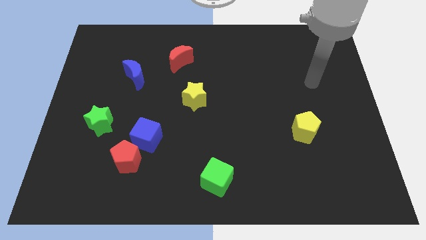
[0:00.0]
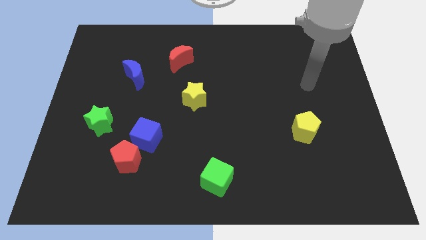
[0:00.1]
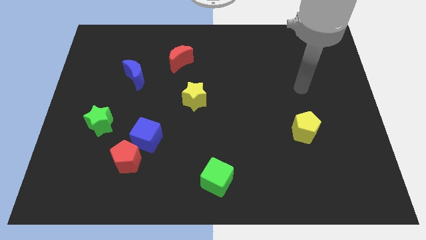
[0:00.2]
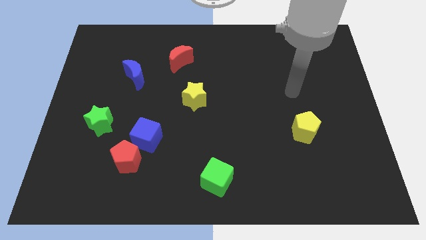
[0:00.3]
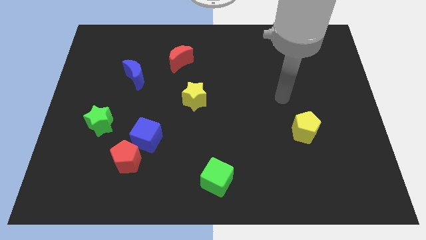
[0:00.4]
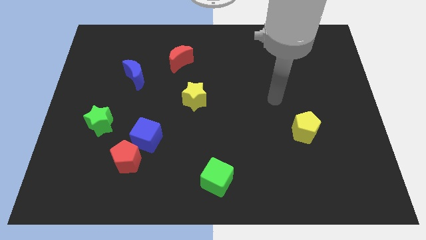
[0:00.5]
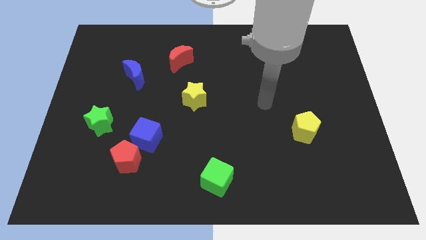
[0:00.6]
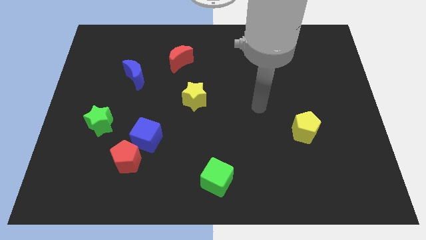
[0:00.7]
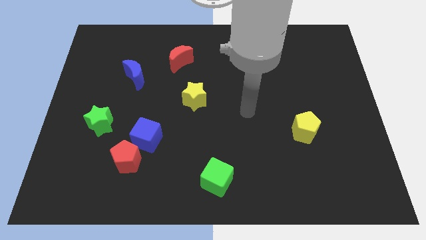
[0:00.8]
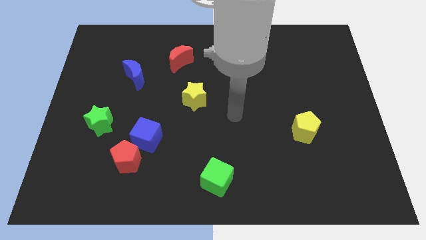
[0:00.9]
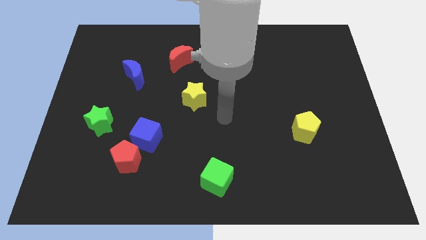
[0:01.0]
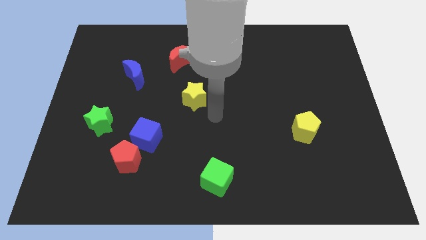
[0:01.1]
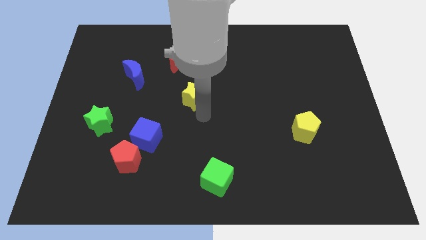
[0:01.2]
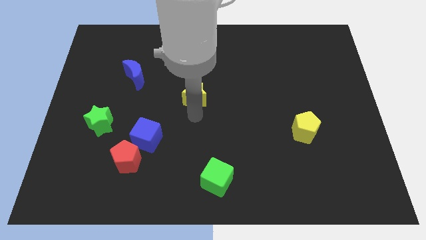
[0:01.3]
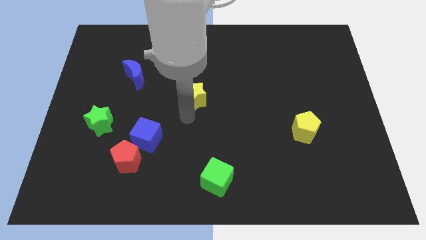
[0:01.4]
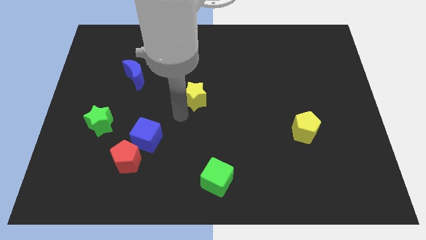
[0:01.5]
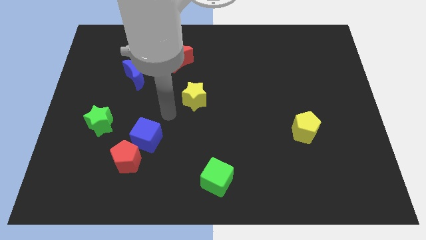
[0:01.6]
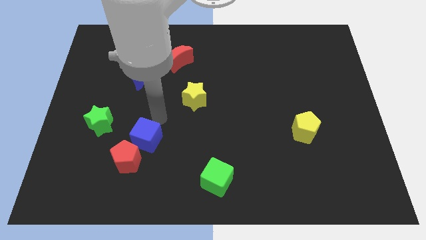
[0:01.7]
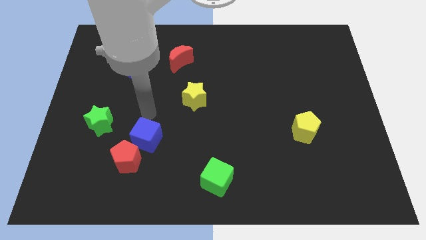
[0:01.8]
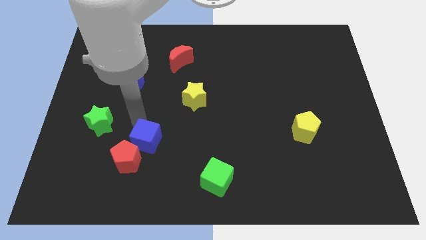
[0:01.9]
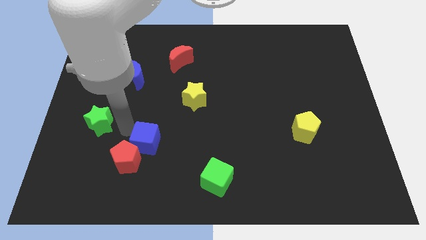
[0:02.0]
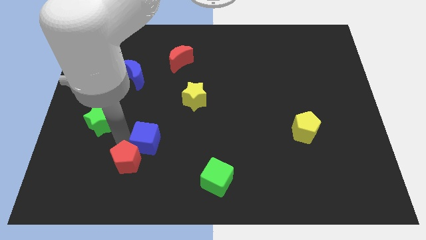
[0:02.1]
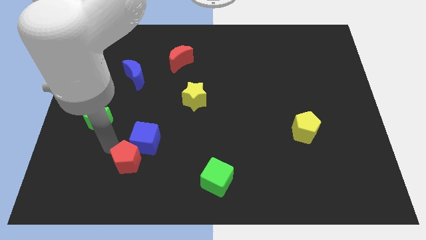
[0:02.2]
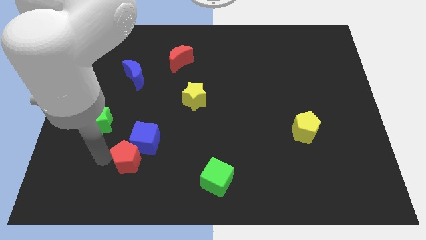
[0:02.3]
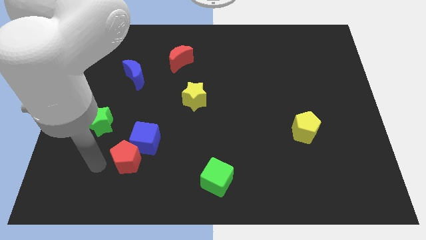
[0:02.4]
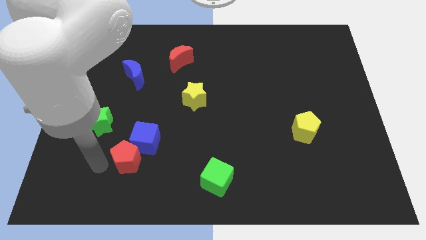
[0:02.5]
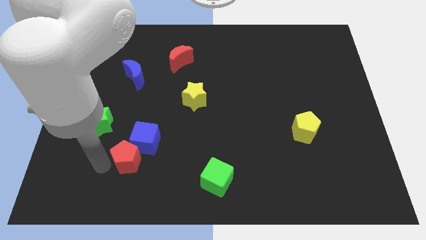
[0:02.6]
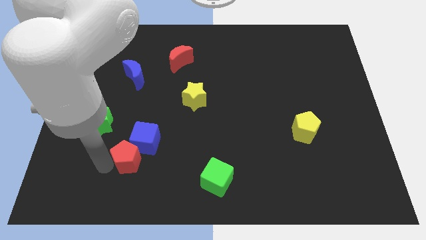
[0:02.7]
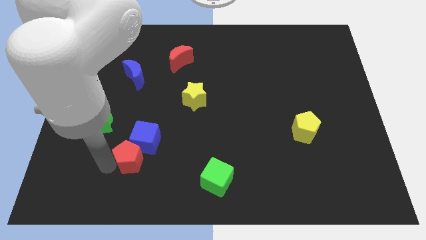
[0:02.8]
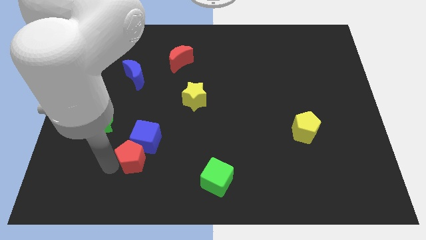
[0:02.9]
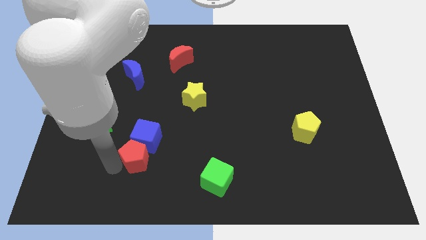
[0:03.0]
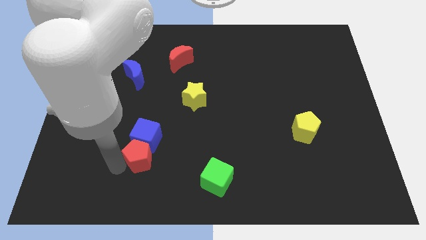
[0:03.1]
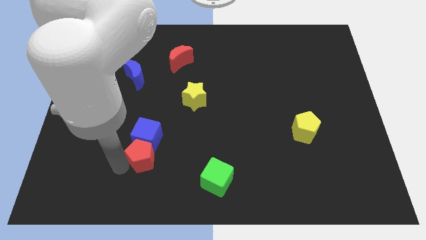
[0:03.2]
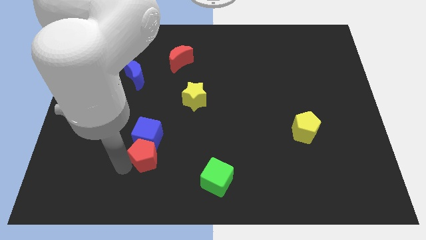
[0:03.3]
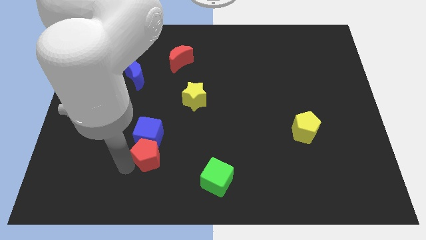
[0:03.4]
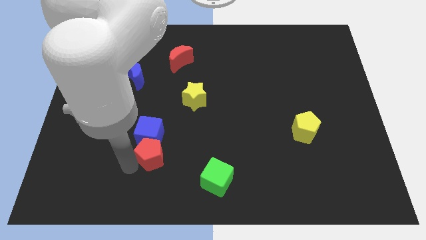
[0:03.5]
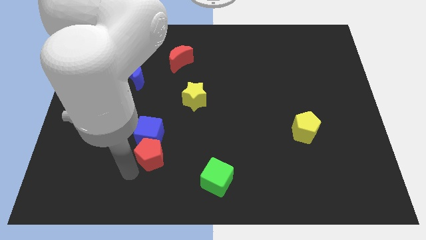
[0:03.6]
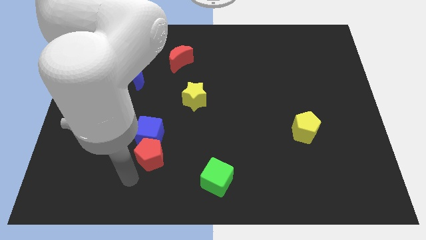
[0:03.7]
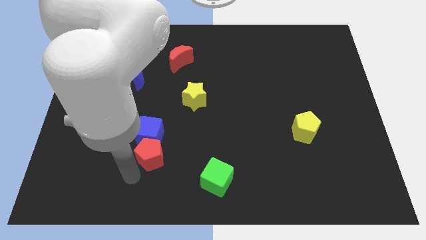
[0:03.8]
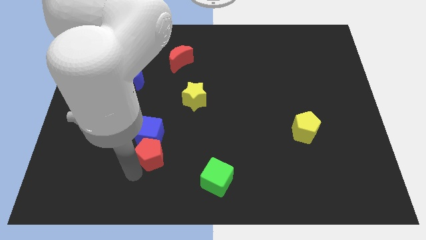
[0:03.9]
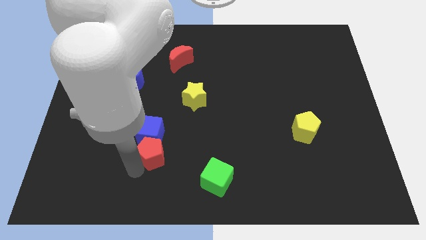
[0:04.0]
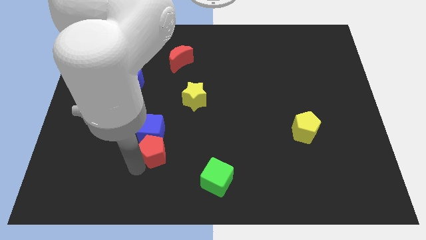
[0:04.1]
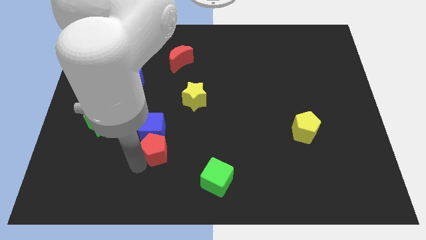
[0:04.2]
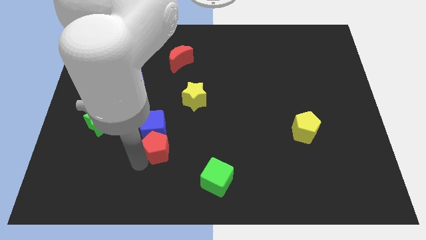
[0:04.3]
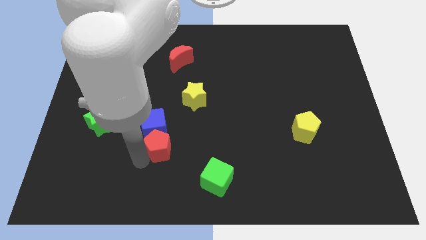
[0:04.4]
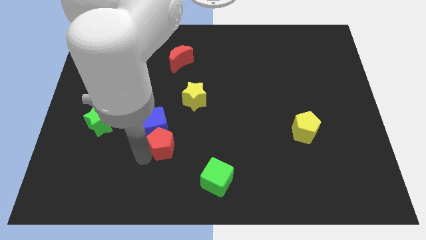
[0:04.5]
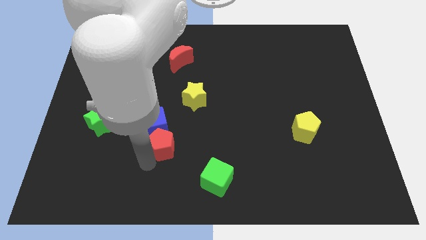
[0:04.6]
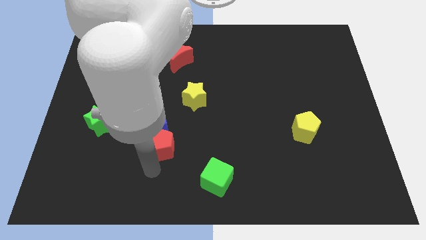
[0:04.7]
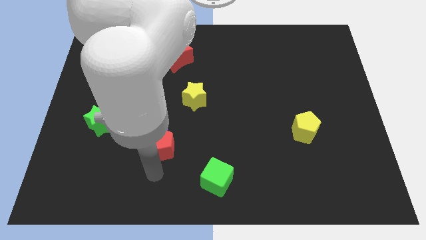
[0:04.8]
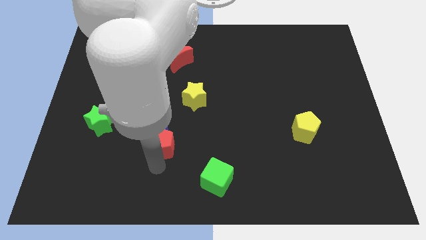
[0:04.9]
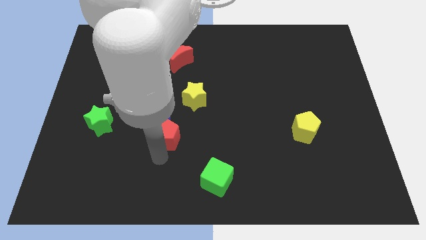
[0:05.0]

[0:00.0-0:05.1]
slide the red pentagon diagonally down and to the left of the yellow star

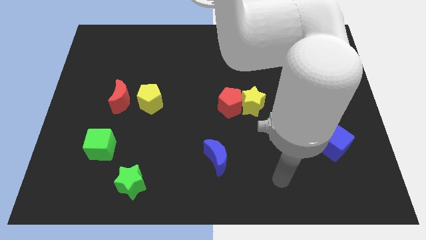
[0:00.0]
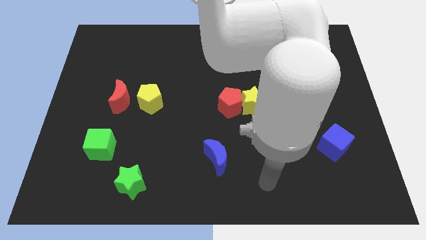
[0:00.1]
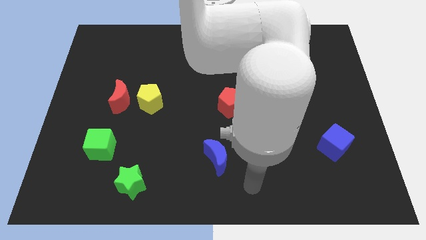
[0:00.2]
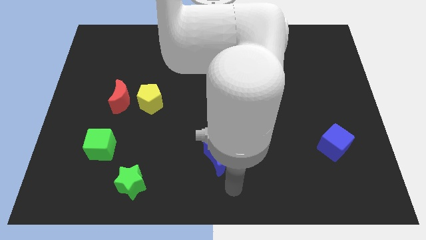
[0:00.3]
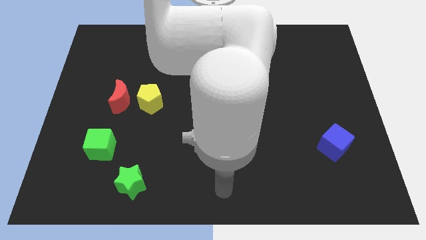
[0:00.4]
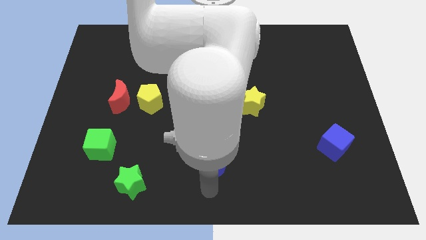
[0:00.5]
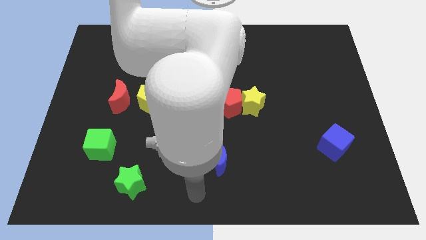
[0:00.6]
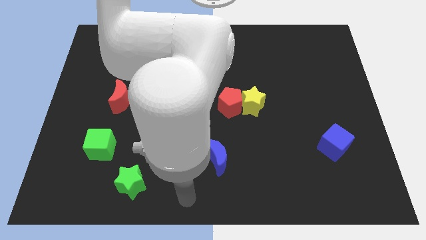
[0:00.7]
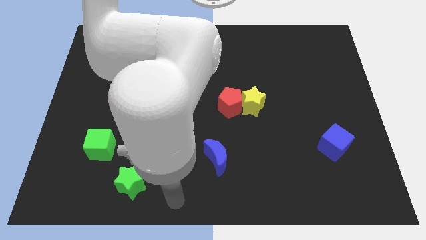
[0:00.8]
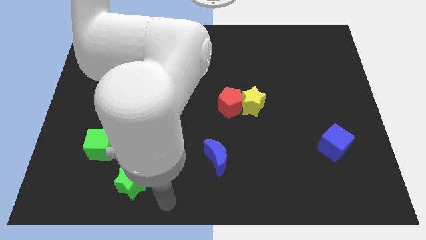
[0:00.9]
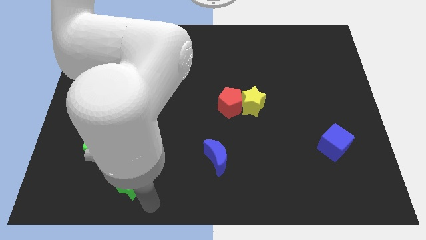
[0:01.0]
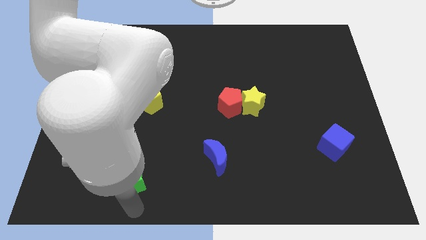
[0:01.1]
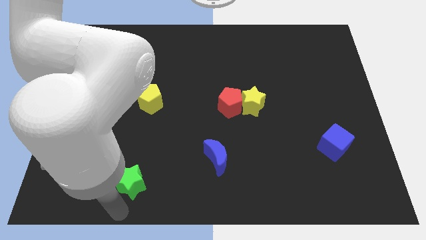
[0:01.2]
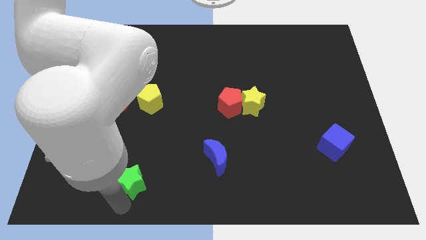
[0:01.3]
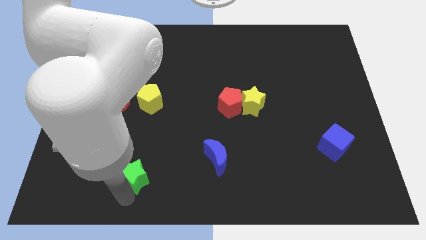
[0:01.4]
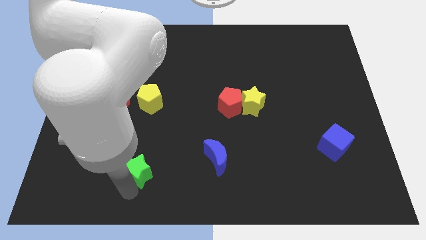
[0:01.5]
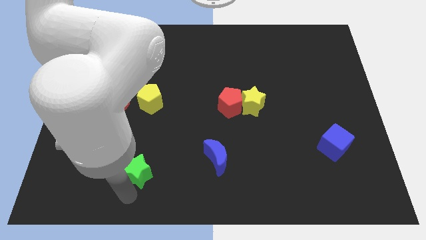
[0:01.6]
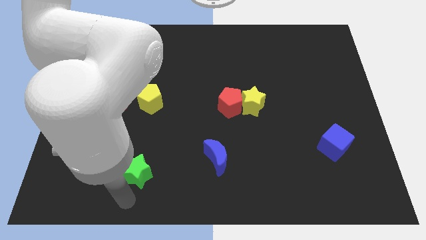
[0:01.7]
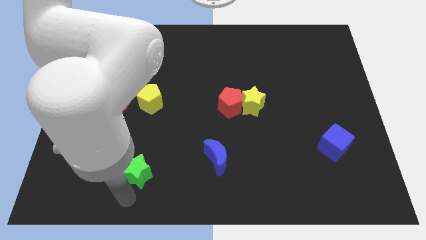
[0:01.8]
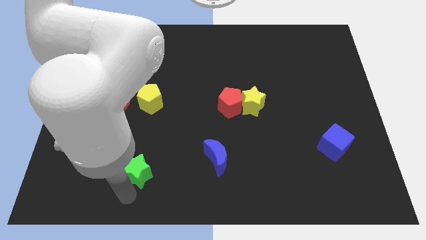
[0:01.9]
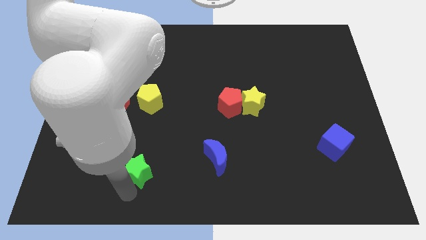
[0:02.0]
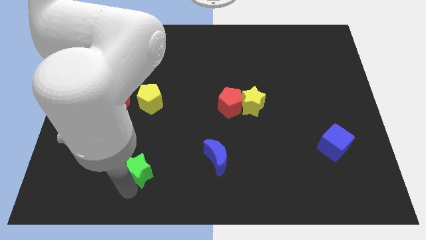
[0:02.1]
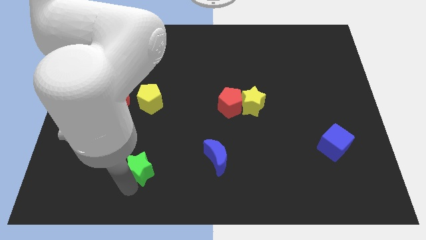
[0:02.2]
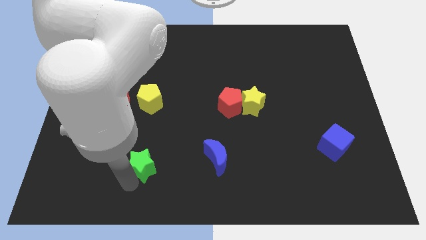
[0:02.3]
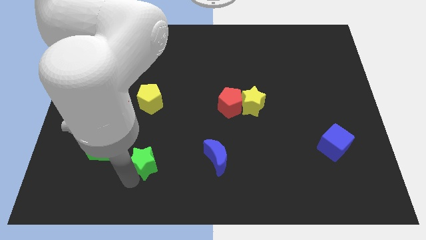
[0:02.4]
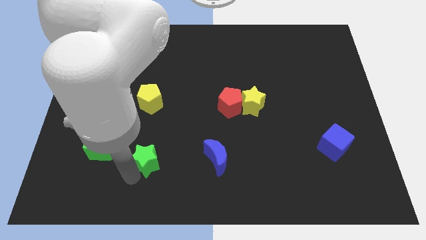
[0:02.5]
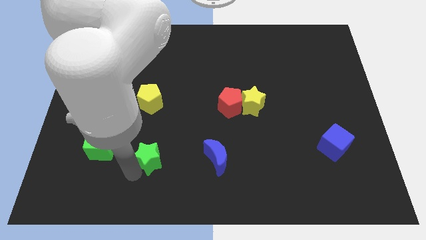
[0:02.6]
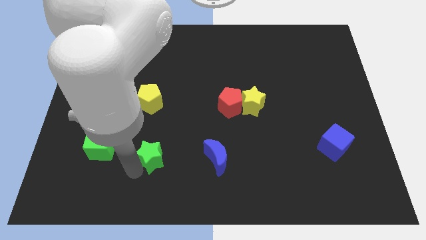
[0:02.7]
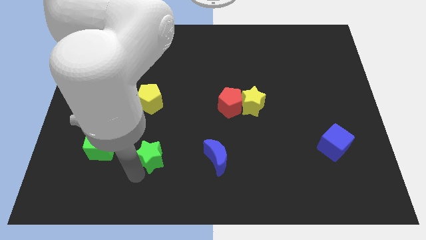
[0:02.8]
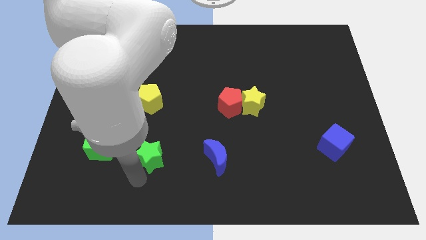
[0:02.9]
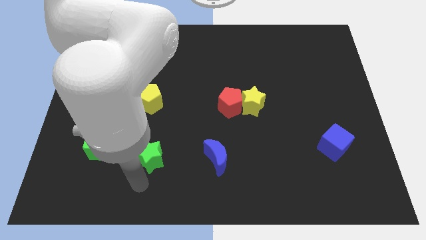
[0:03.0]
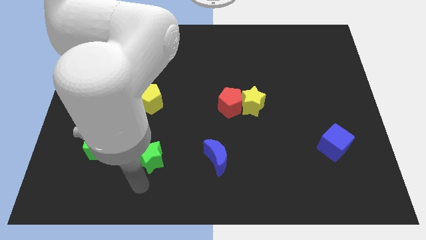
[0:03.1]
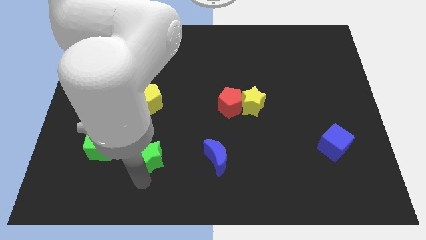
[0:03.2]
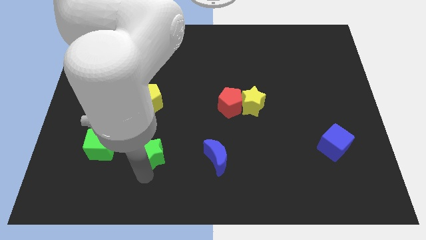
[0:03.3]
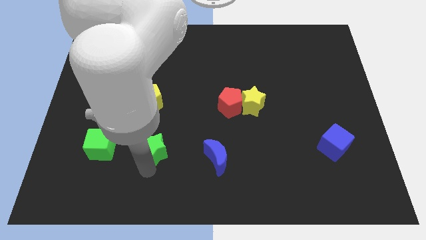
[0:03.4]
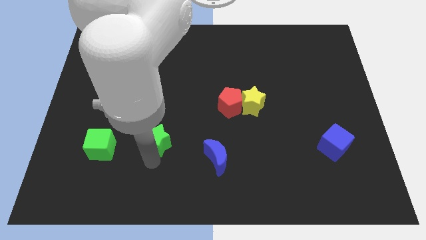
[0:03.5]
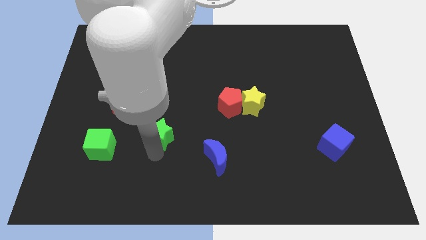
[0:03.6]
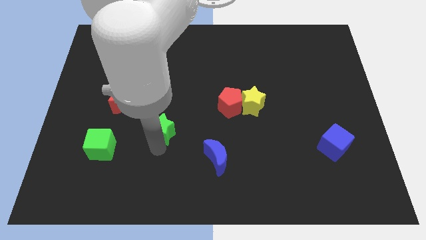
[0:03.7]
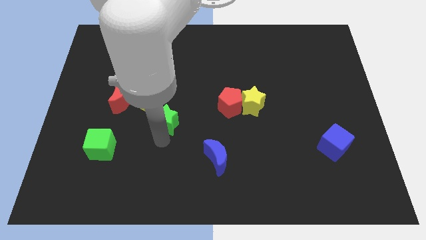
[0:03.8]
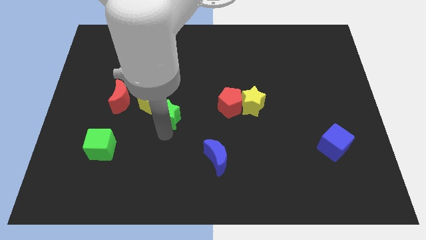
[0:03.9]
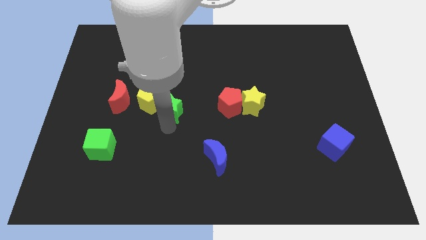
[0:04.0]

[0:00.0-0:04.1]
slide the green star to the right side of the red moon
